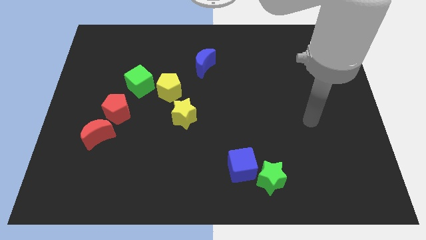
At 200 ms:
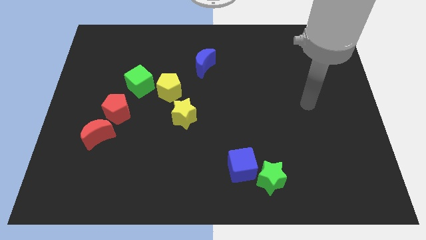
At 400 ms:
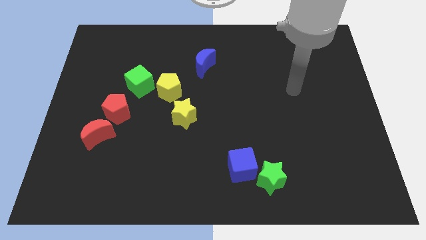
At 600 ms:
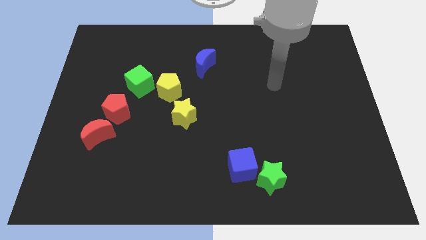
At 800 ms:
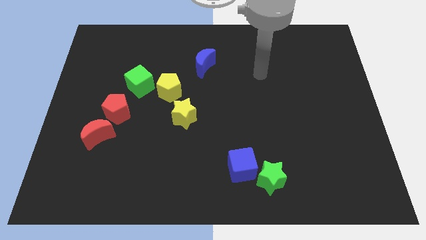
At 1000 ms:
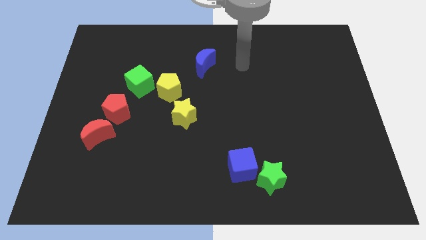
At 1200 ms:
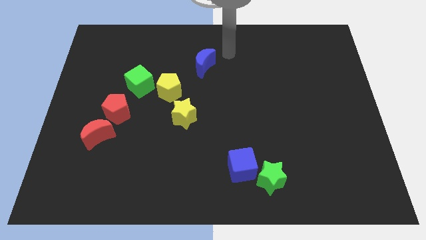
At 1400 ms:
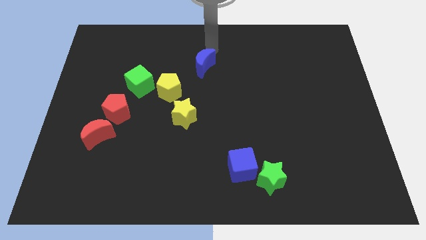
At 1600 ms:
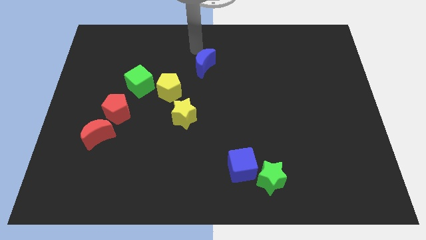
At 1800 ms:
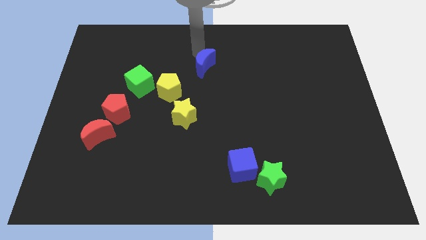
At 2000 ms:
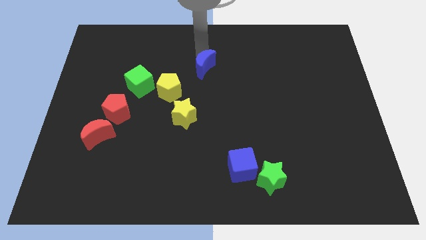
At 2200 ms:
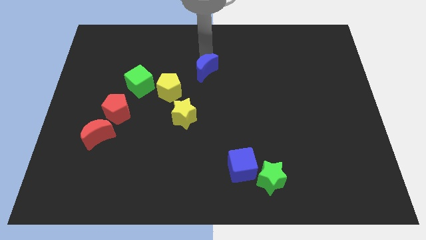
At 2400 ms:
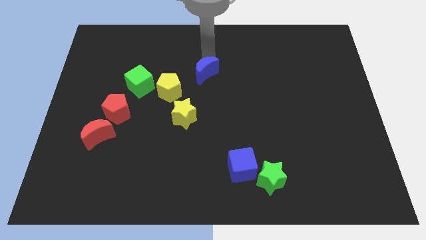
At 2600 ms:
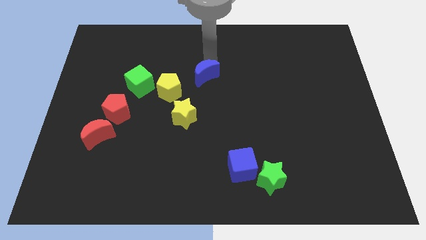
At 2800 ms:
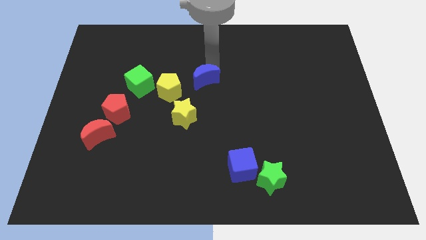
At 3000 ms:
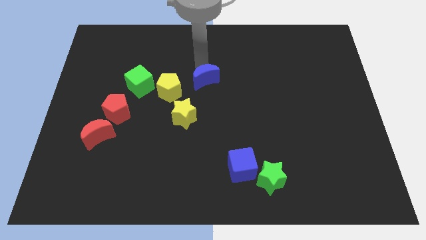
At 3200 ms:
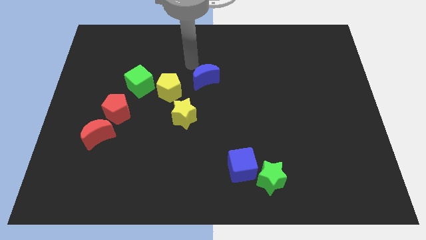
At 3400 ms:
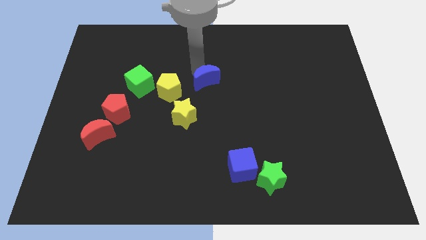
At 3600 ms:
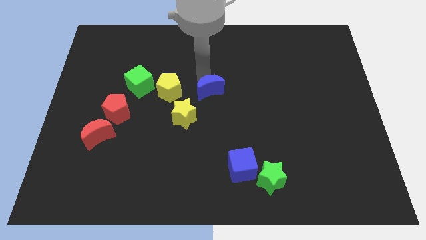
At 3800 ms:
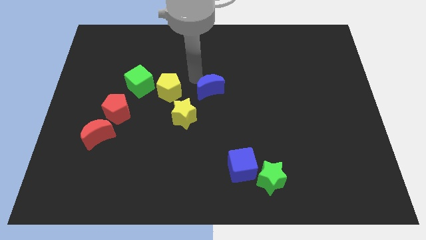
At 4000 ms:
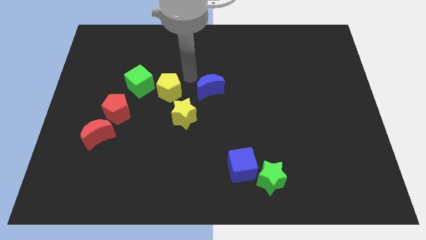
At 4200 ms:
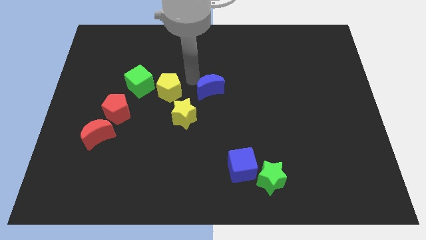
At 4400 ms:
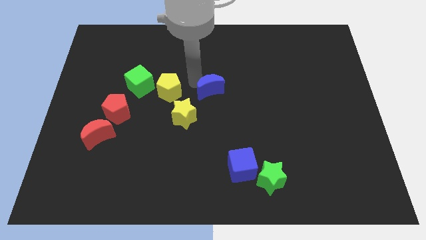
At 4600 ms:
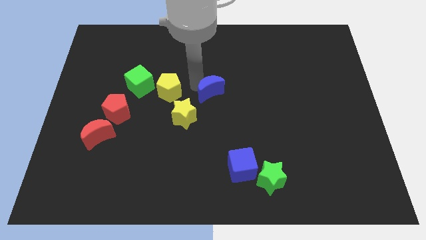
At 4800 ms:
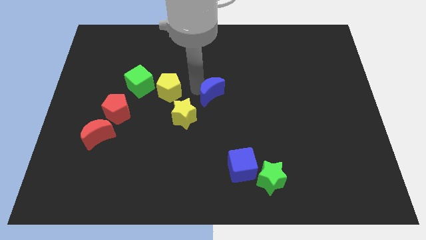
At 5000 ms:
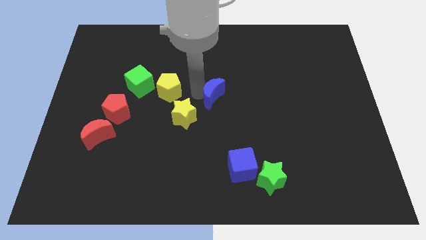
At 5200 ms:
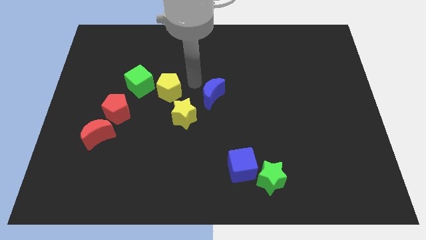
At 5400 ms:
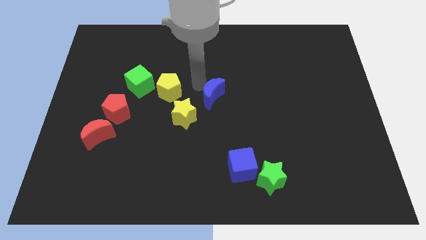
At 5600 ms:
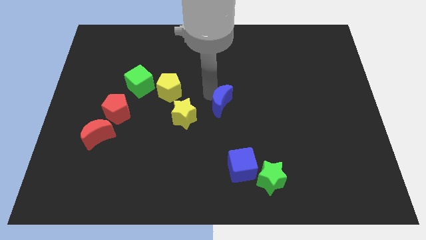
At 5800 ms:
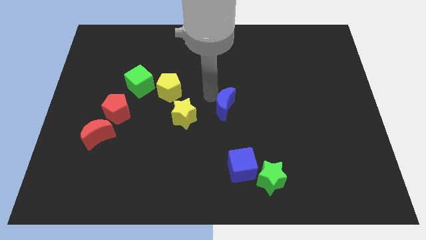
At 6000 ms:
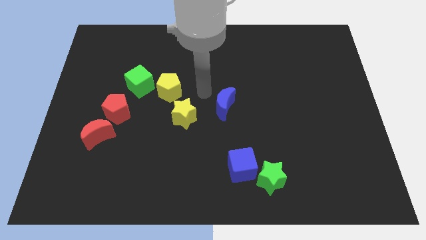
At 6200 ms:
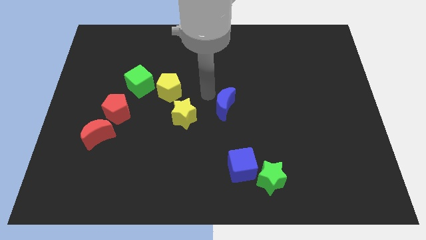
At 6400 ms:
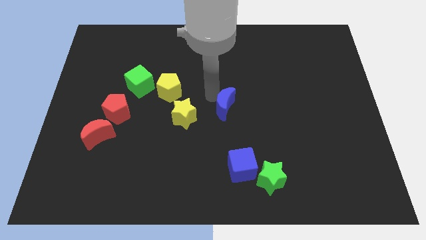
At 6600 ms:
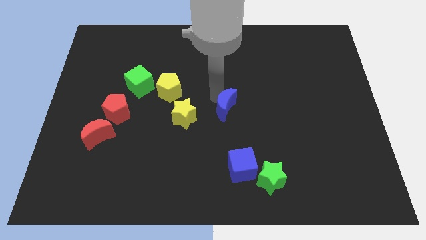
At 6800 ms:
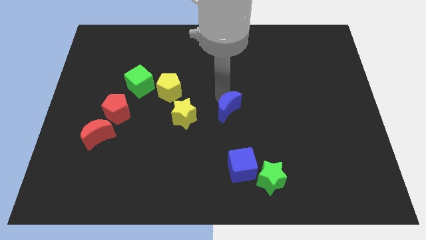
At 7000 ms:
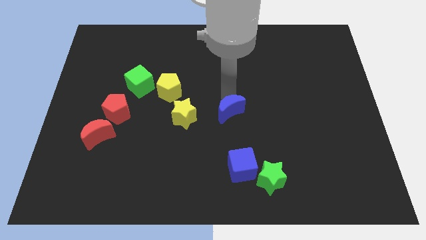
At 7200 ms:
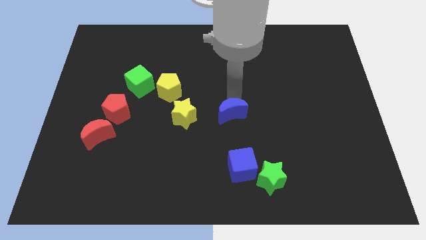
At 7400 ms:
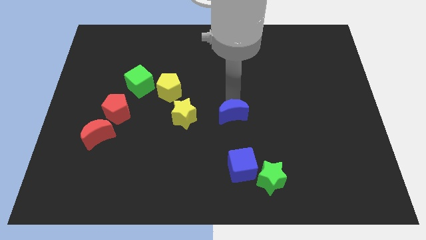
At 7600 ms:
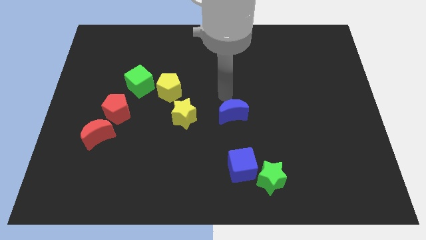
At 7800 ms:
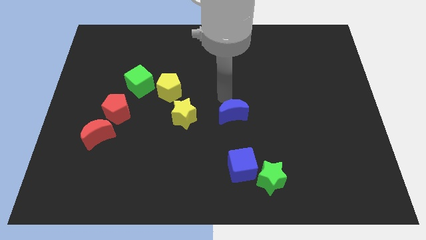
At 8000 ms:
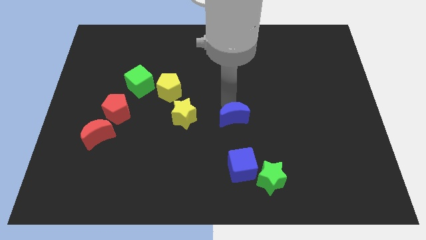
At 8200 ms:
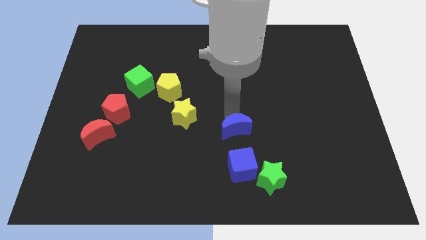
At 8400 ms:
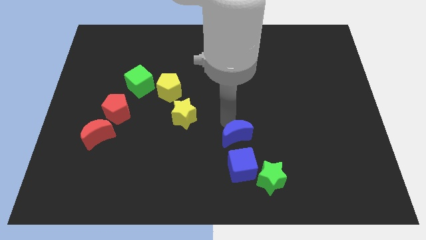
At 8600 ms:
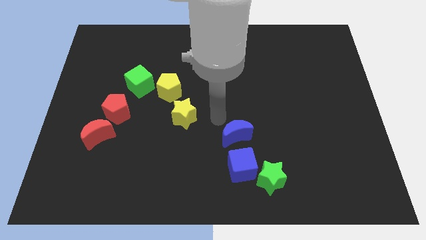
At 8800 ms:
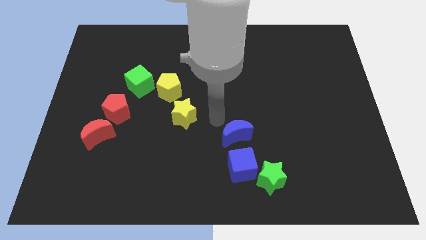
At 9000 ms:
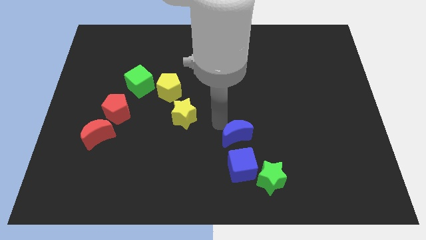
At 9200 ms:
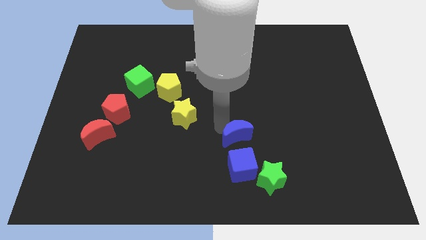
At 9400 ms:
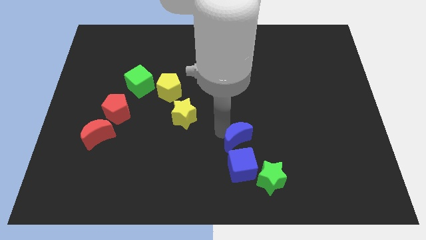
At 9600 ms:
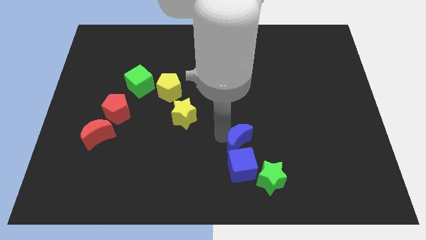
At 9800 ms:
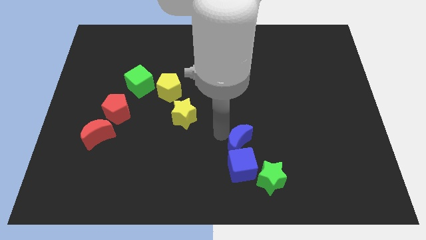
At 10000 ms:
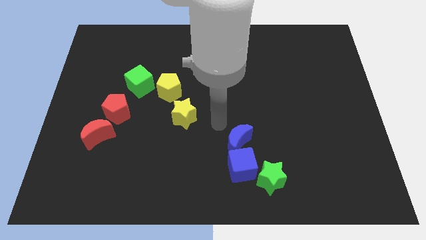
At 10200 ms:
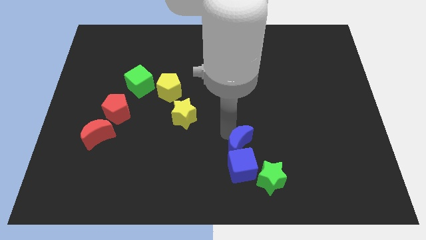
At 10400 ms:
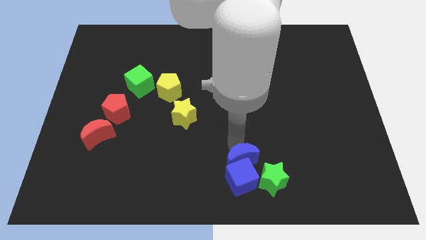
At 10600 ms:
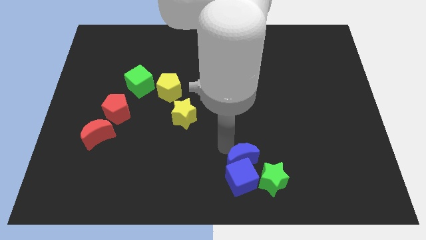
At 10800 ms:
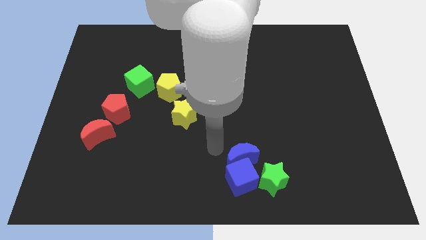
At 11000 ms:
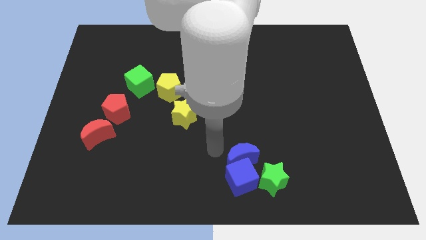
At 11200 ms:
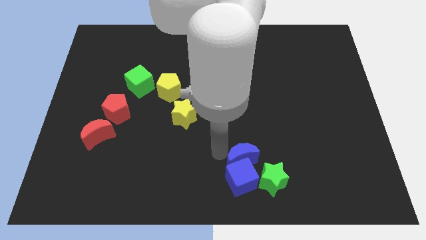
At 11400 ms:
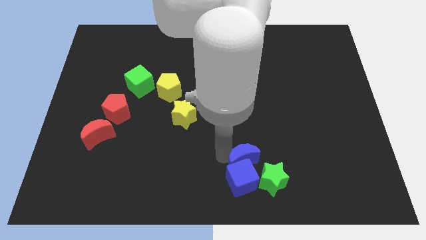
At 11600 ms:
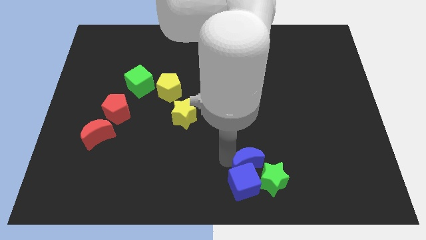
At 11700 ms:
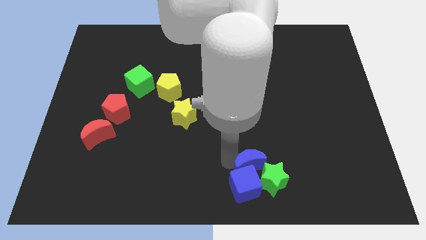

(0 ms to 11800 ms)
put the blue moon close to the green star
